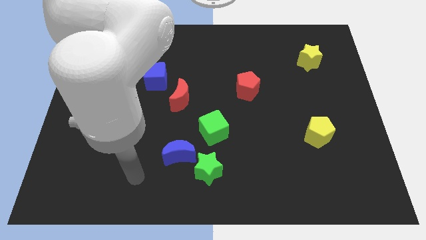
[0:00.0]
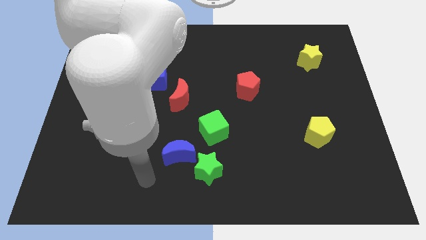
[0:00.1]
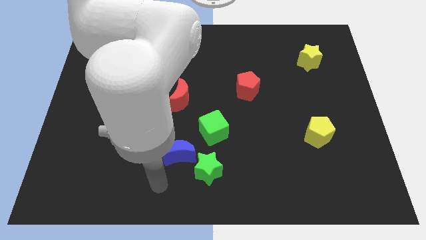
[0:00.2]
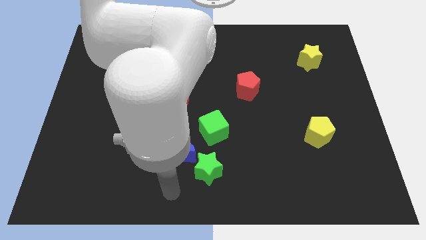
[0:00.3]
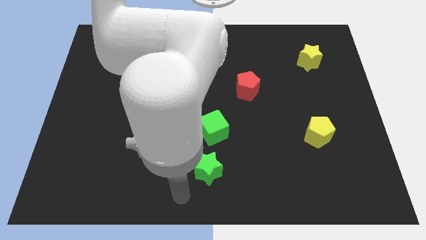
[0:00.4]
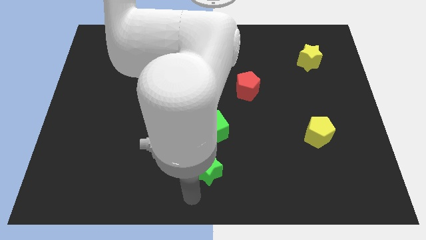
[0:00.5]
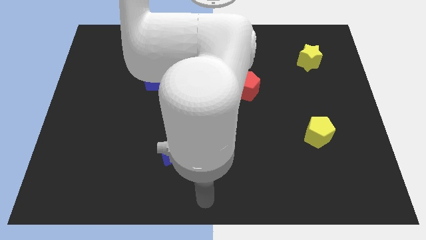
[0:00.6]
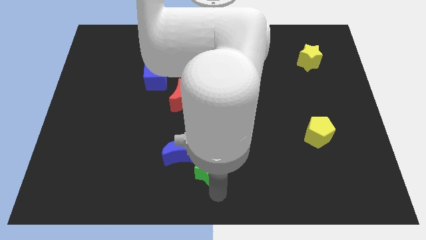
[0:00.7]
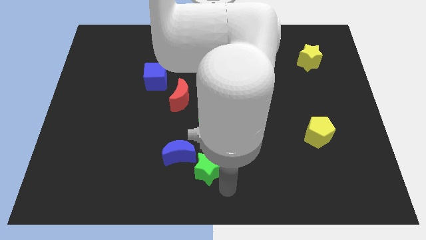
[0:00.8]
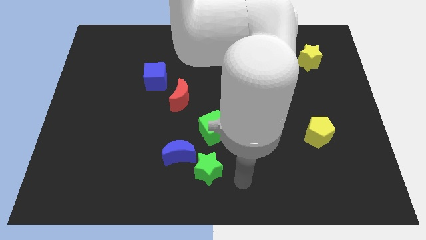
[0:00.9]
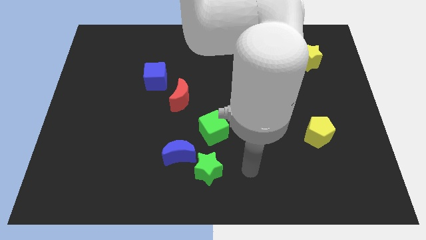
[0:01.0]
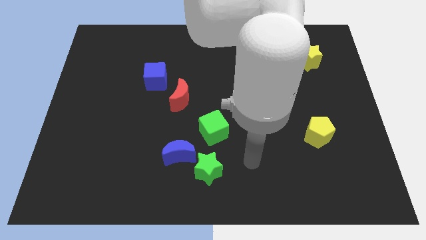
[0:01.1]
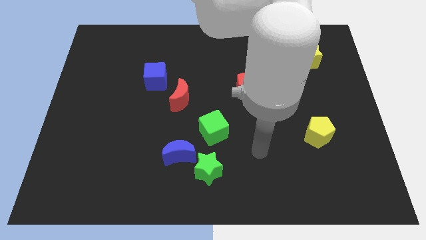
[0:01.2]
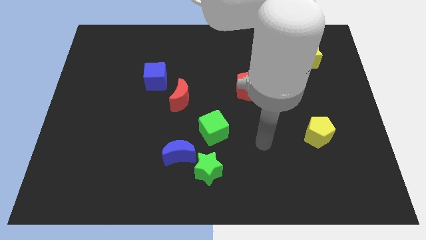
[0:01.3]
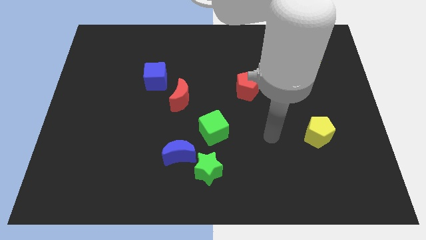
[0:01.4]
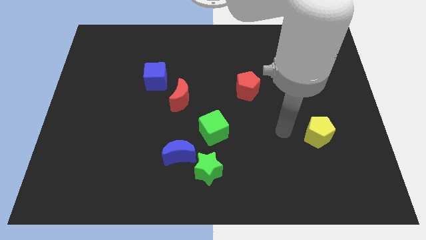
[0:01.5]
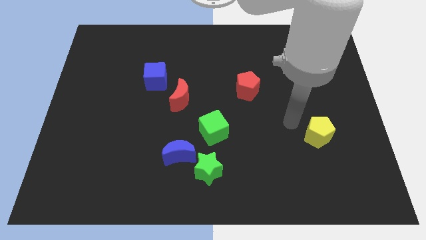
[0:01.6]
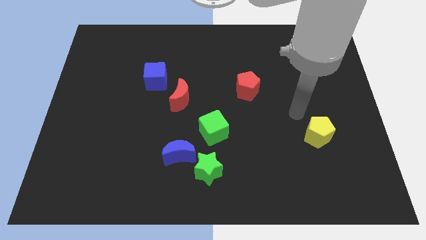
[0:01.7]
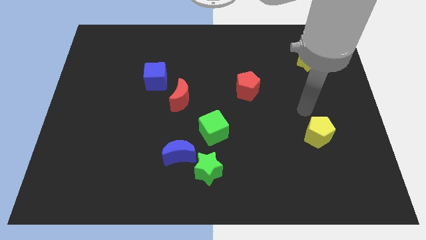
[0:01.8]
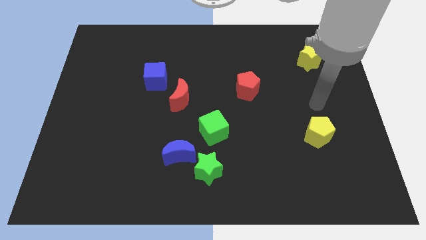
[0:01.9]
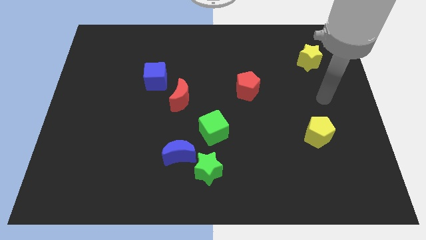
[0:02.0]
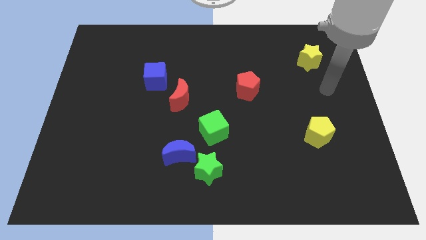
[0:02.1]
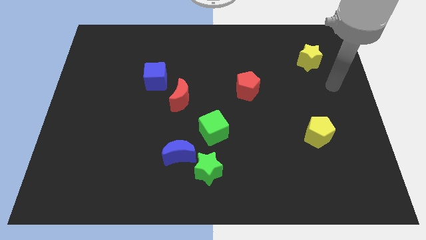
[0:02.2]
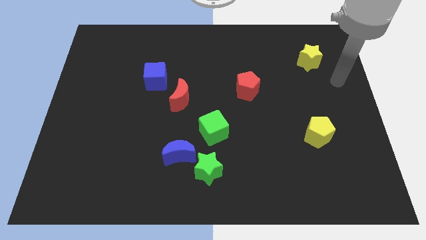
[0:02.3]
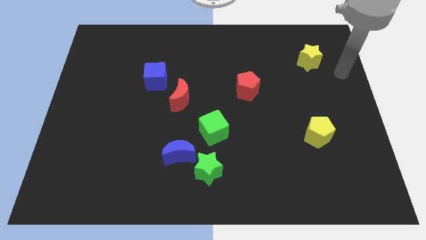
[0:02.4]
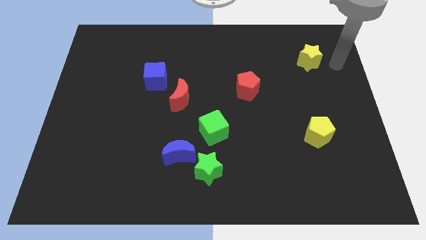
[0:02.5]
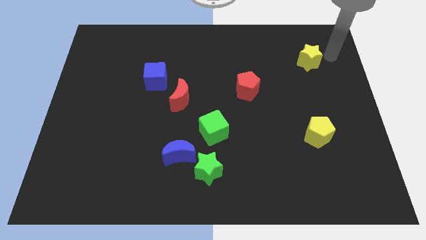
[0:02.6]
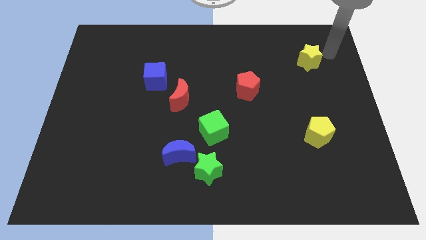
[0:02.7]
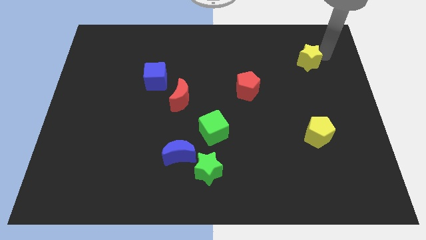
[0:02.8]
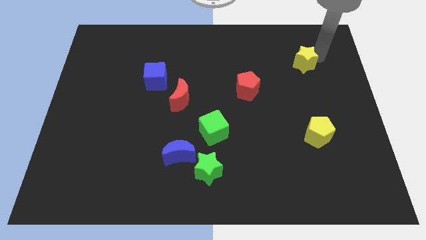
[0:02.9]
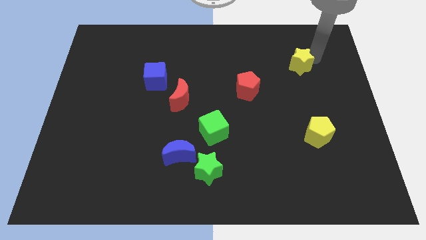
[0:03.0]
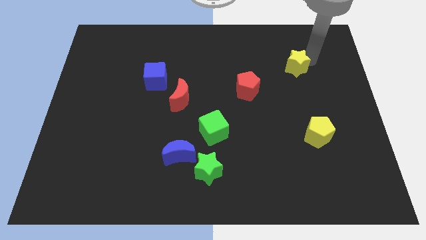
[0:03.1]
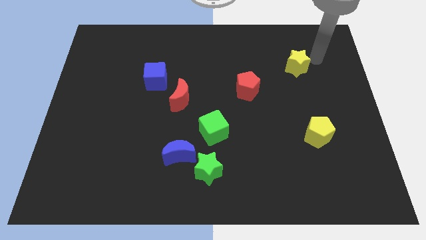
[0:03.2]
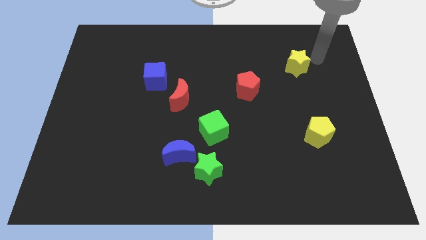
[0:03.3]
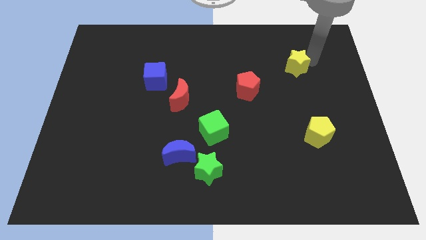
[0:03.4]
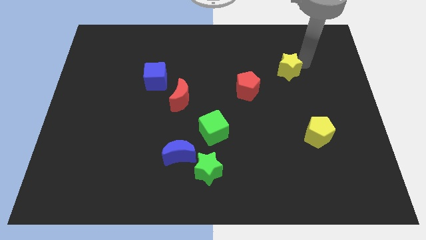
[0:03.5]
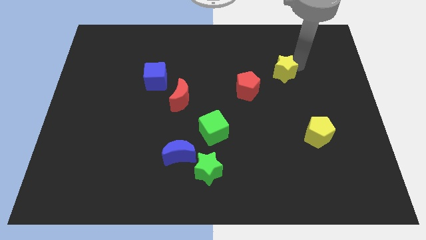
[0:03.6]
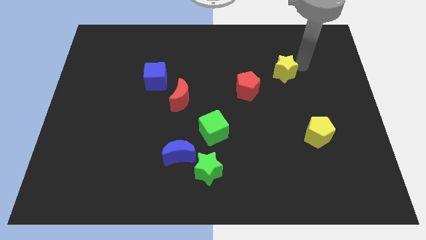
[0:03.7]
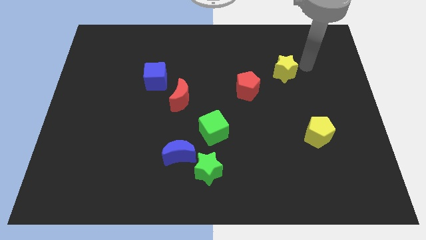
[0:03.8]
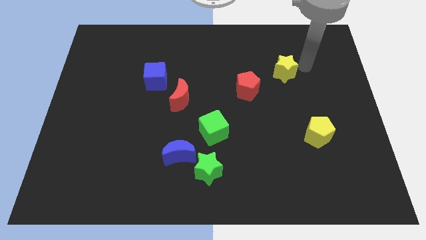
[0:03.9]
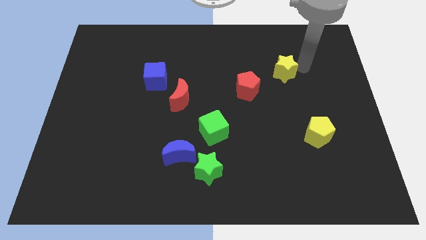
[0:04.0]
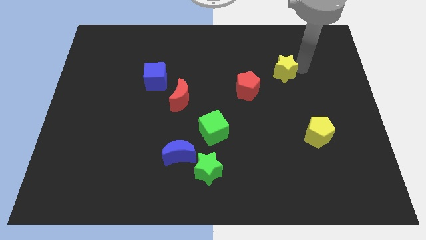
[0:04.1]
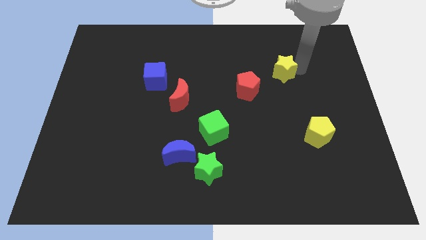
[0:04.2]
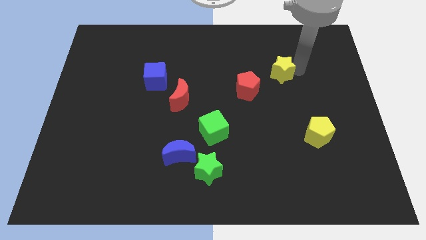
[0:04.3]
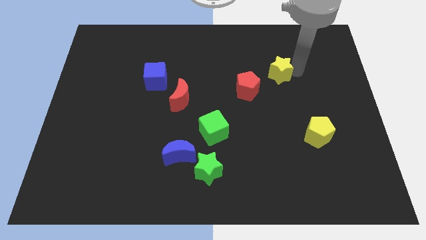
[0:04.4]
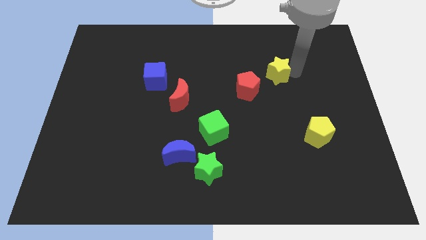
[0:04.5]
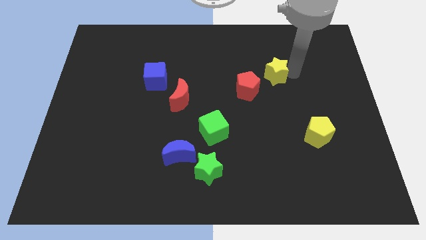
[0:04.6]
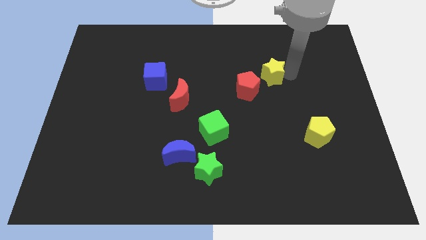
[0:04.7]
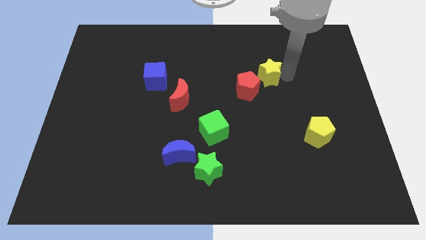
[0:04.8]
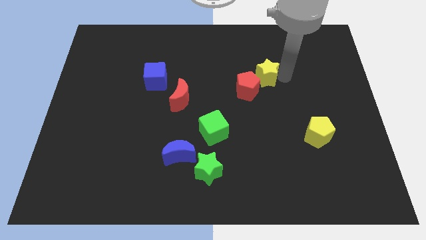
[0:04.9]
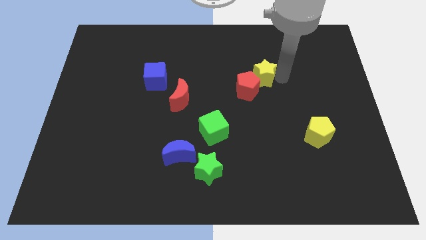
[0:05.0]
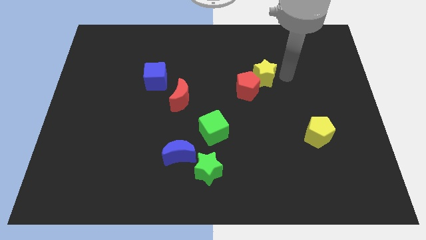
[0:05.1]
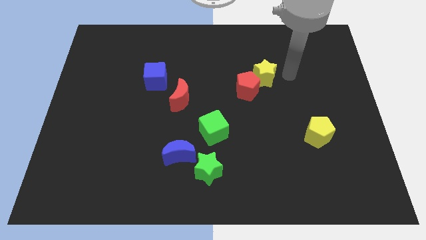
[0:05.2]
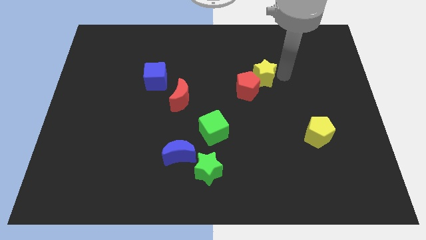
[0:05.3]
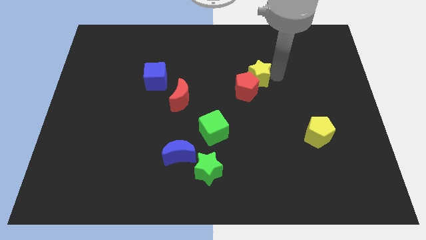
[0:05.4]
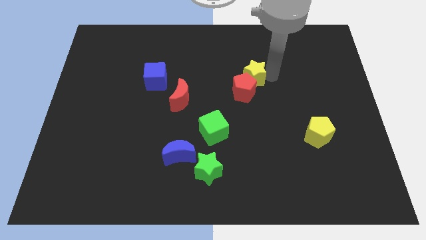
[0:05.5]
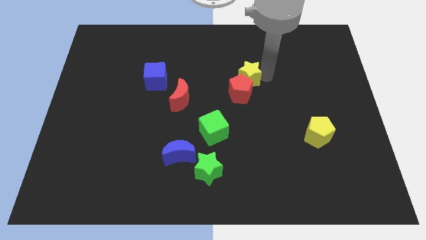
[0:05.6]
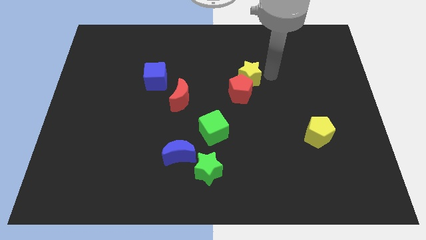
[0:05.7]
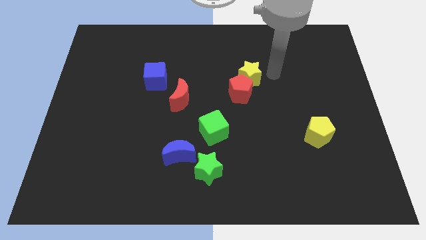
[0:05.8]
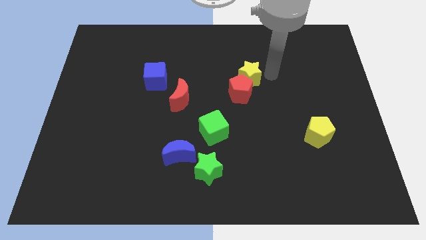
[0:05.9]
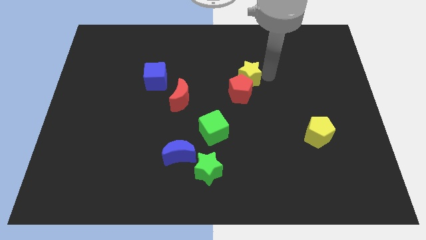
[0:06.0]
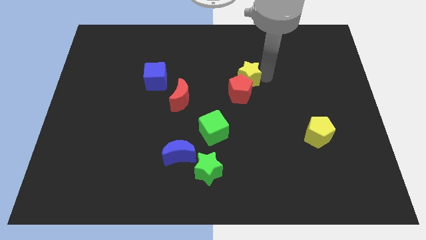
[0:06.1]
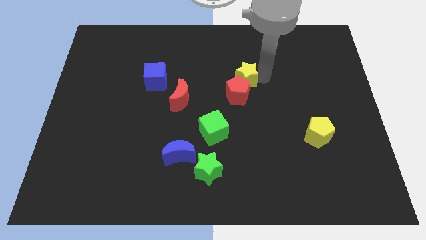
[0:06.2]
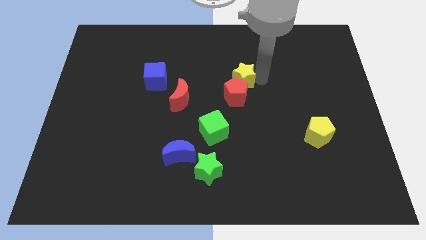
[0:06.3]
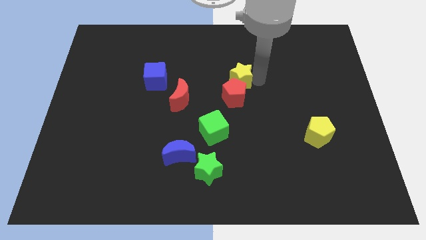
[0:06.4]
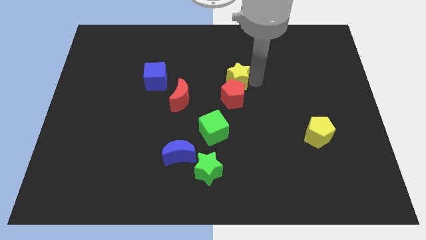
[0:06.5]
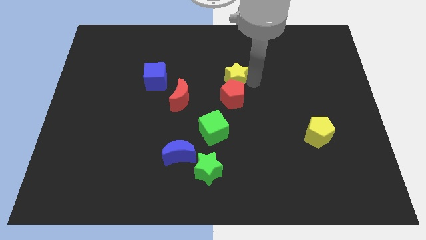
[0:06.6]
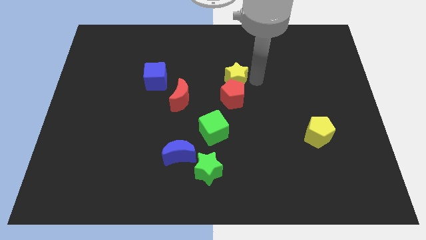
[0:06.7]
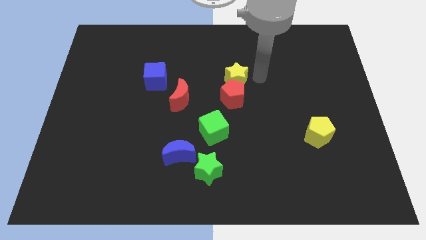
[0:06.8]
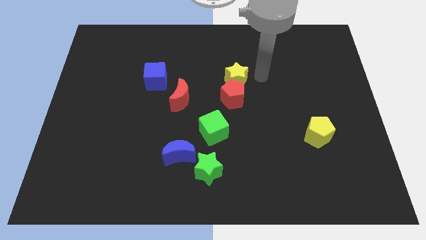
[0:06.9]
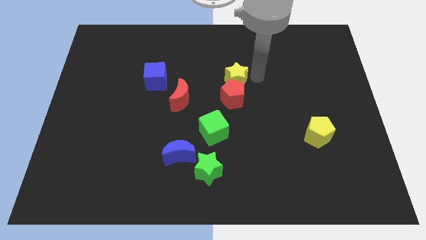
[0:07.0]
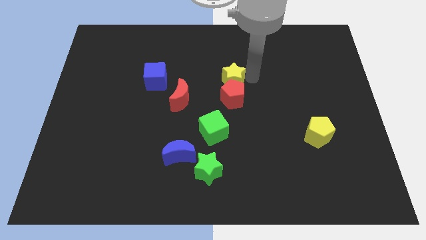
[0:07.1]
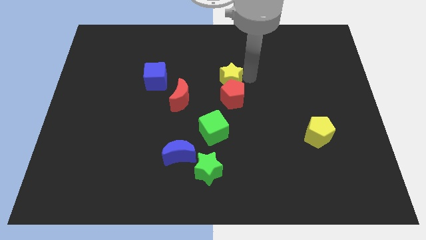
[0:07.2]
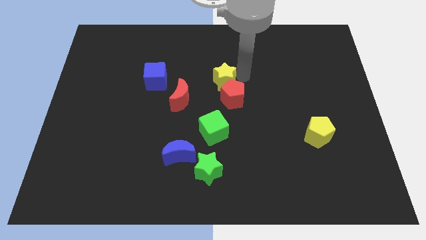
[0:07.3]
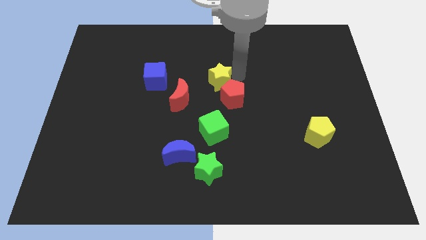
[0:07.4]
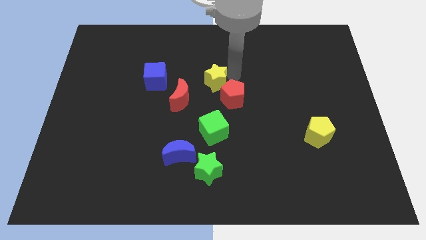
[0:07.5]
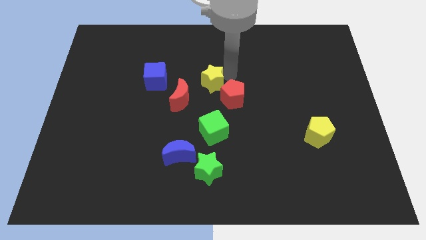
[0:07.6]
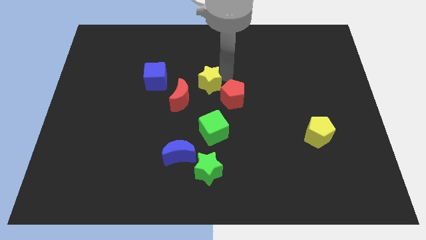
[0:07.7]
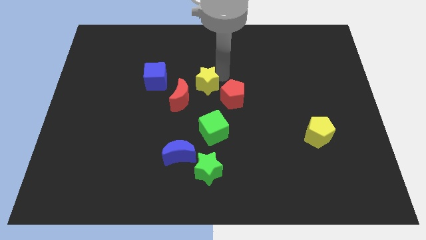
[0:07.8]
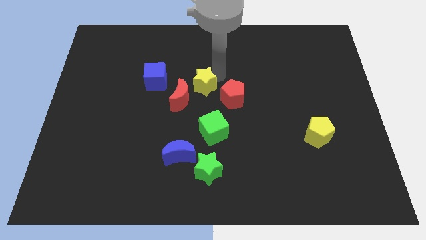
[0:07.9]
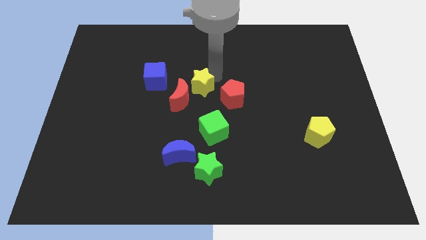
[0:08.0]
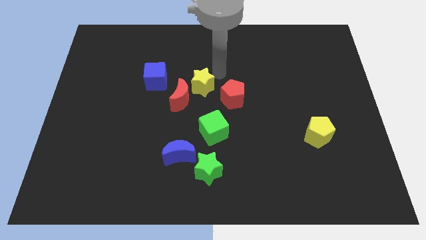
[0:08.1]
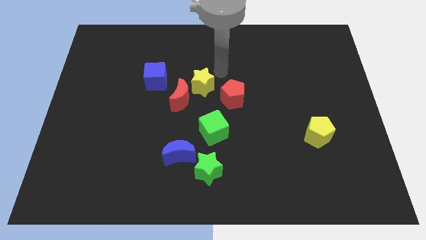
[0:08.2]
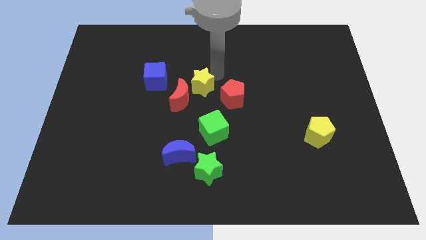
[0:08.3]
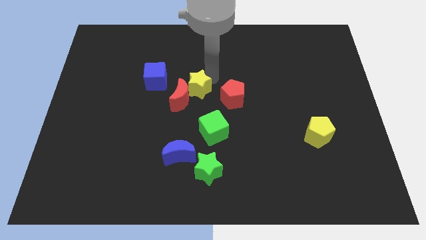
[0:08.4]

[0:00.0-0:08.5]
push the yellow star to the red moon
